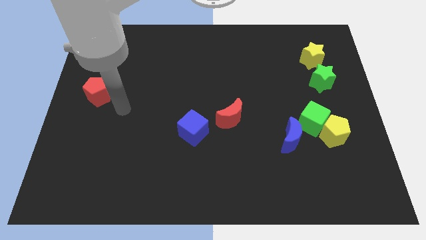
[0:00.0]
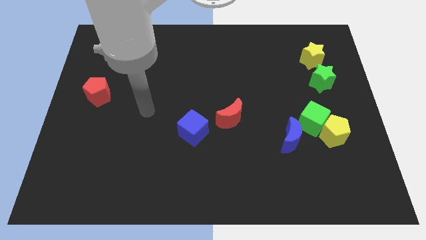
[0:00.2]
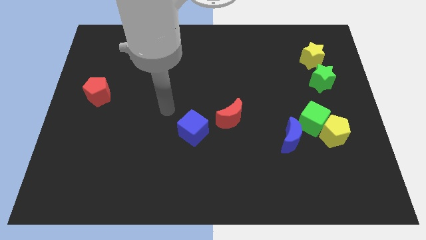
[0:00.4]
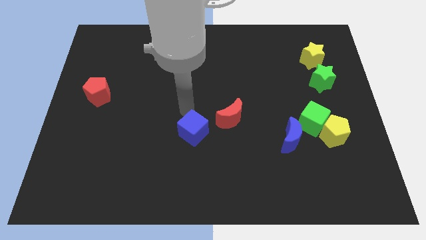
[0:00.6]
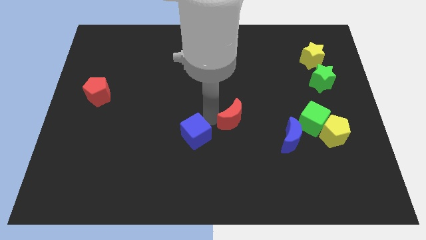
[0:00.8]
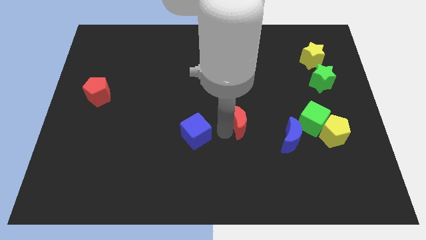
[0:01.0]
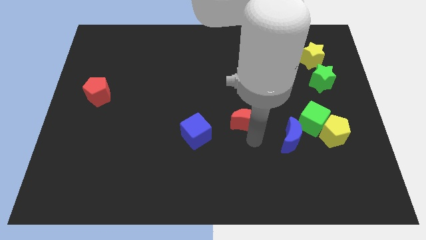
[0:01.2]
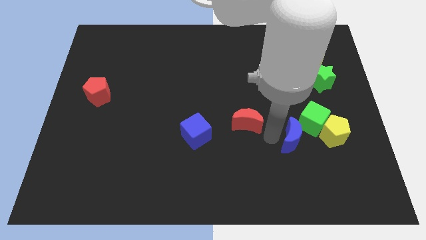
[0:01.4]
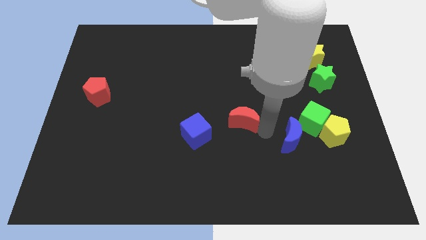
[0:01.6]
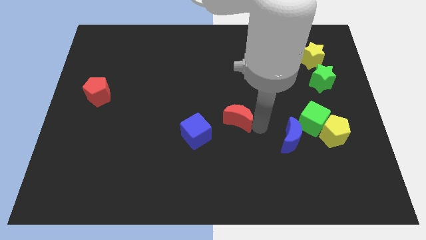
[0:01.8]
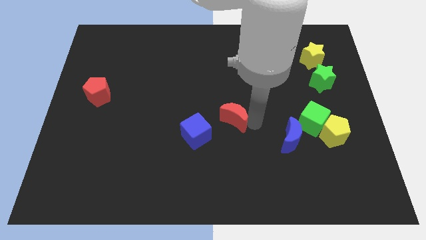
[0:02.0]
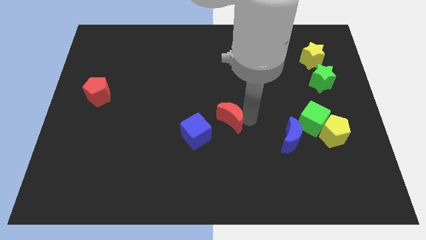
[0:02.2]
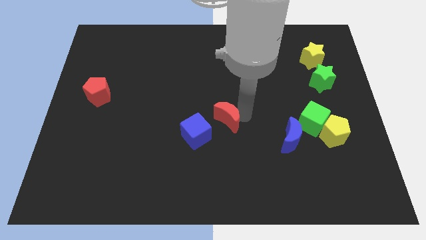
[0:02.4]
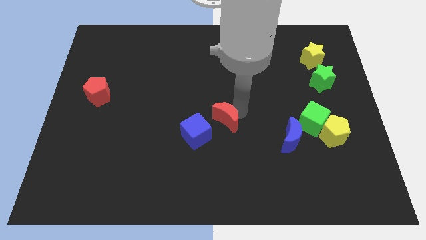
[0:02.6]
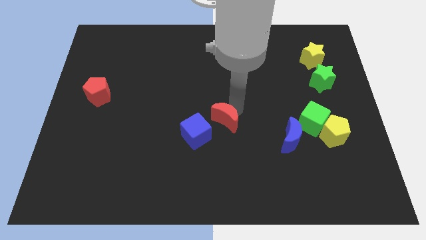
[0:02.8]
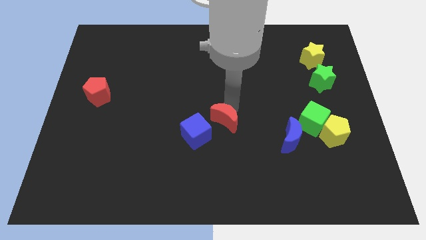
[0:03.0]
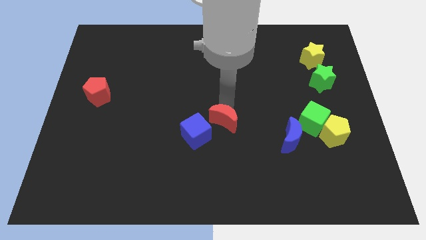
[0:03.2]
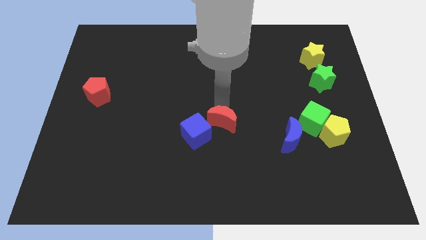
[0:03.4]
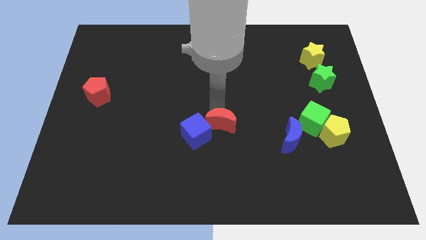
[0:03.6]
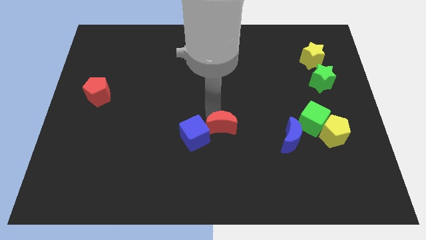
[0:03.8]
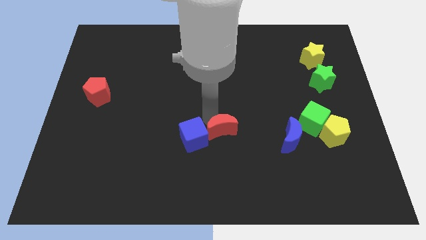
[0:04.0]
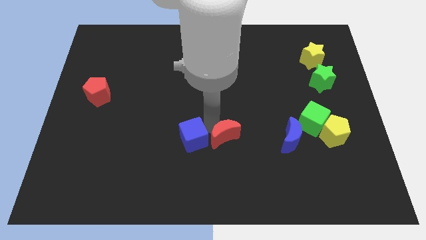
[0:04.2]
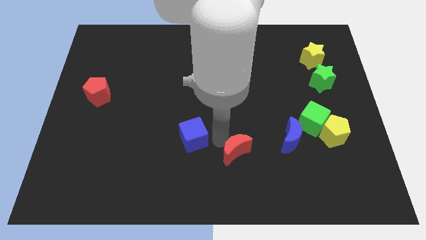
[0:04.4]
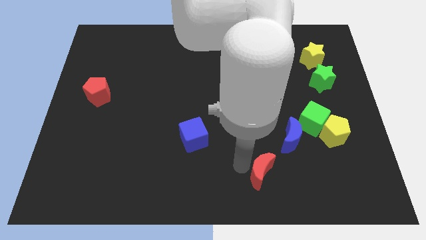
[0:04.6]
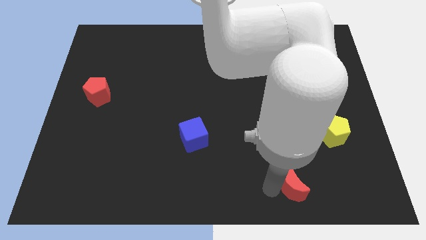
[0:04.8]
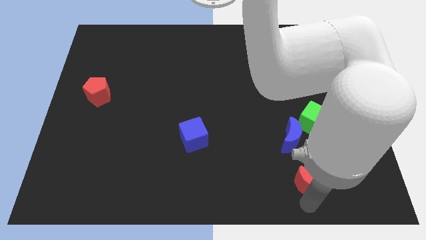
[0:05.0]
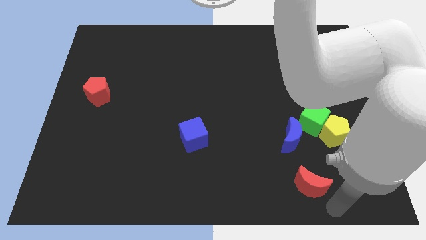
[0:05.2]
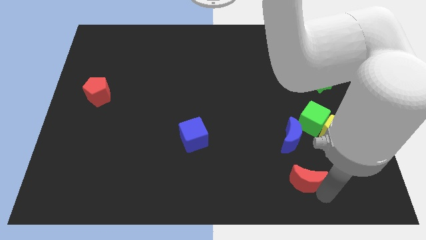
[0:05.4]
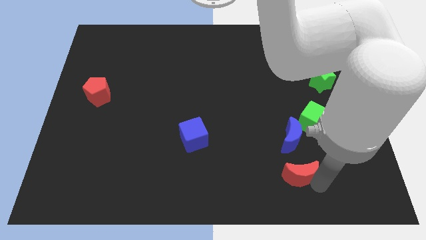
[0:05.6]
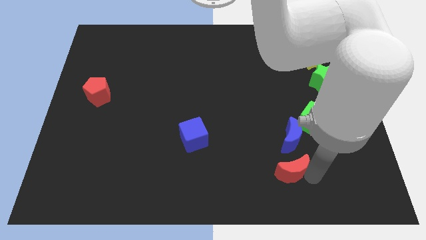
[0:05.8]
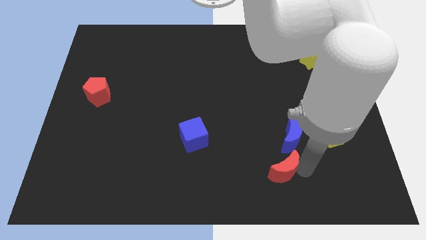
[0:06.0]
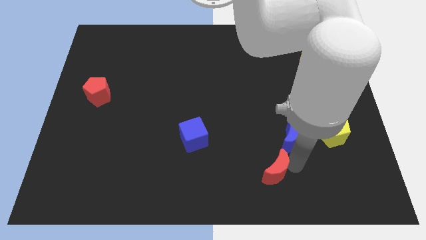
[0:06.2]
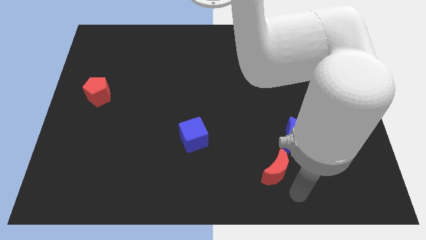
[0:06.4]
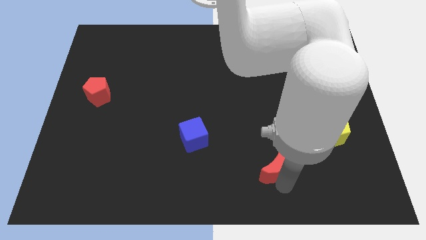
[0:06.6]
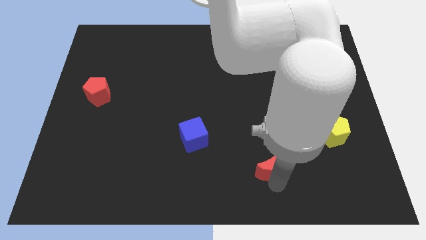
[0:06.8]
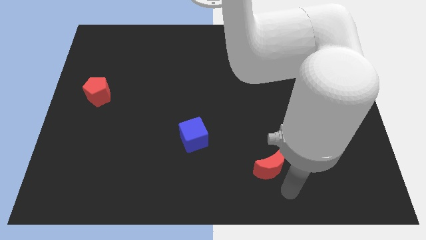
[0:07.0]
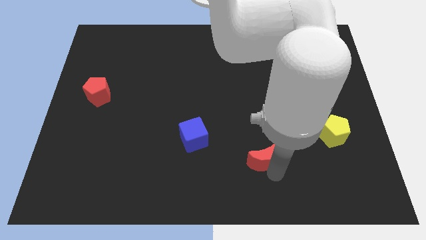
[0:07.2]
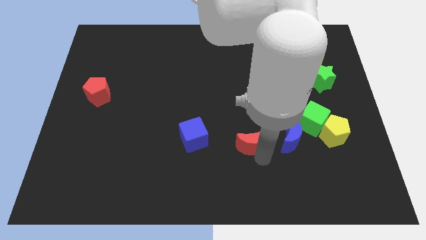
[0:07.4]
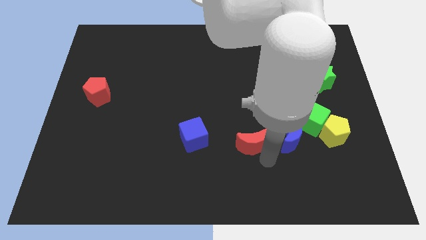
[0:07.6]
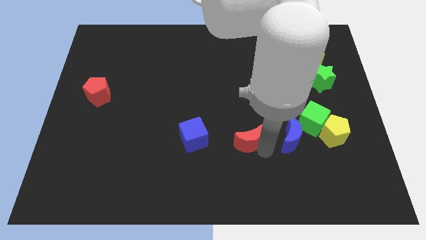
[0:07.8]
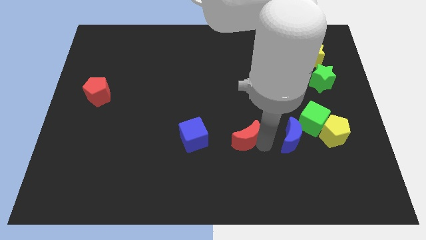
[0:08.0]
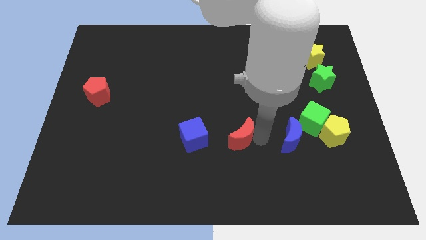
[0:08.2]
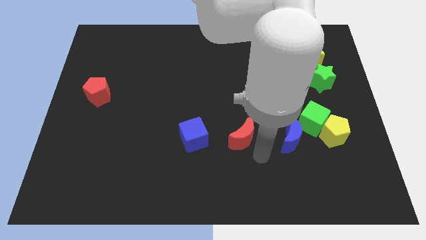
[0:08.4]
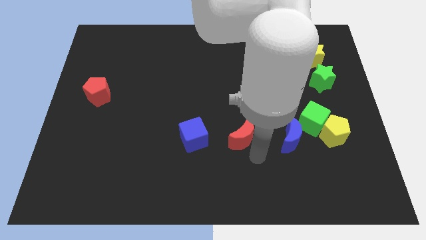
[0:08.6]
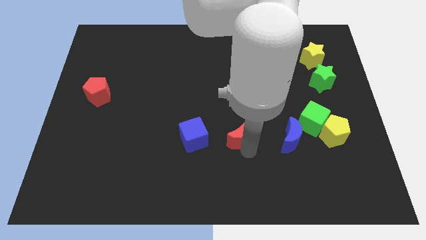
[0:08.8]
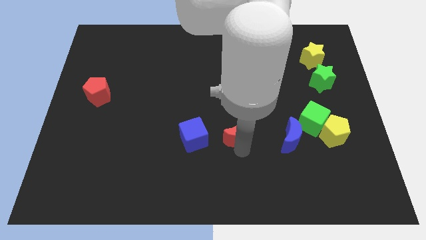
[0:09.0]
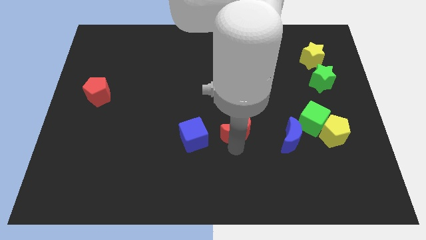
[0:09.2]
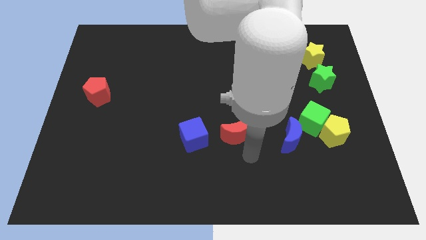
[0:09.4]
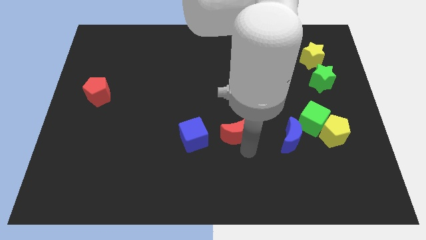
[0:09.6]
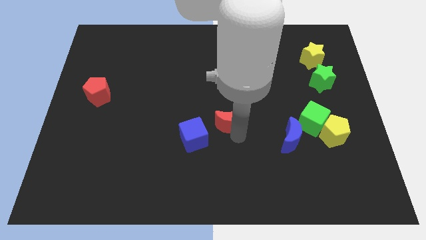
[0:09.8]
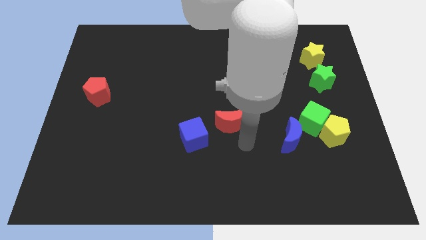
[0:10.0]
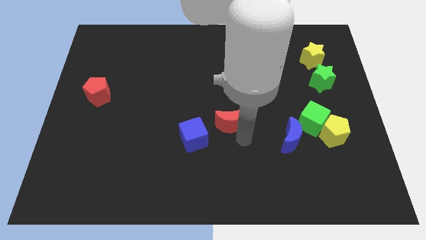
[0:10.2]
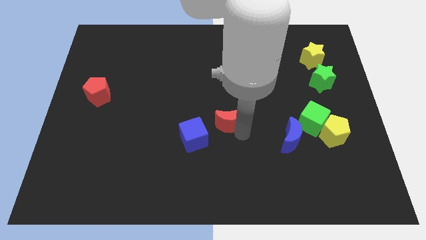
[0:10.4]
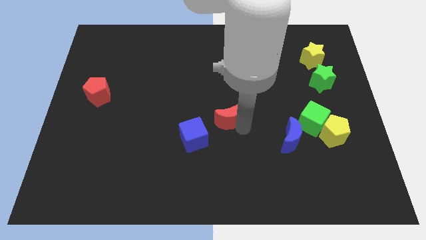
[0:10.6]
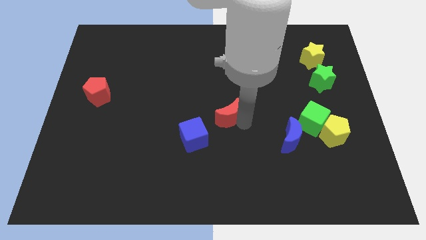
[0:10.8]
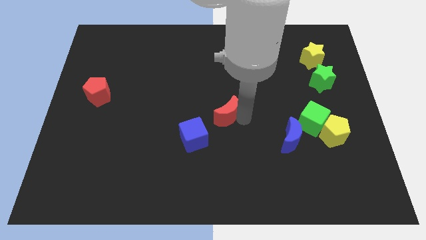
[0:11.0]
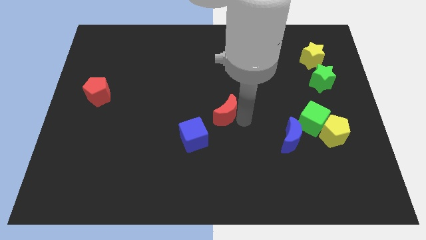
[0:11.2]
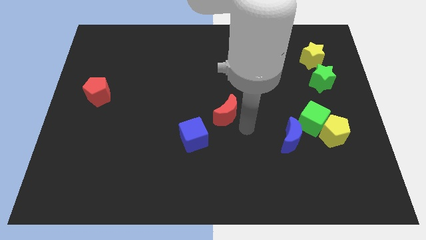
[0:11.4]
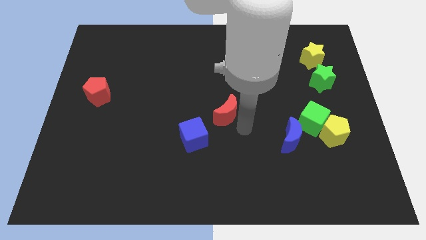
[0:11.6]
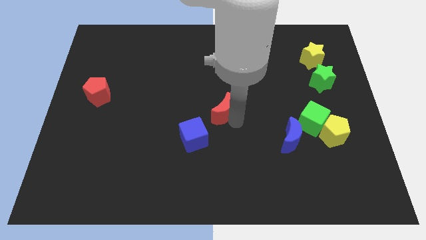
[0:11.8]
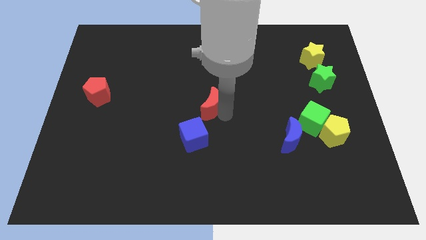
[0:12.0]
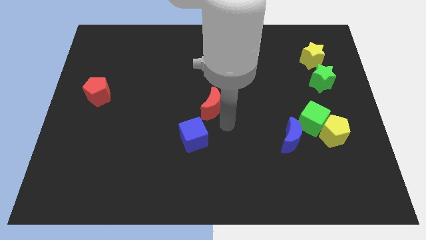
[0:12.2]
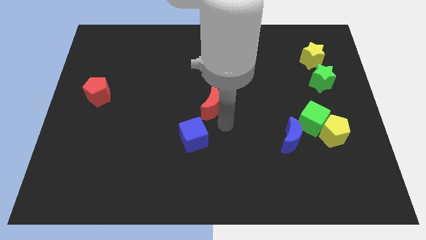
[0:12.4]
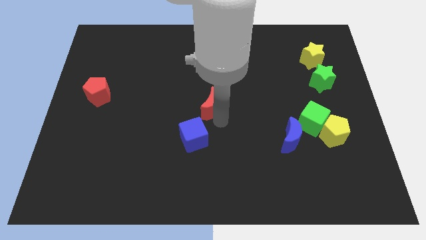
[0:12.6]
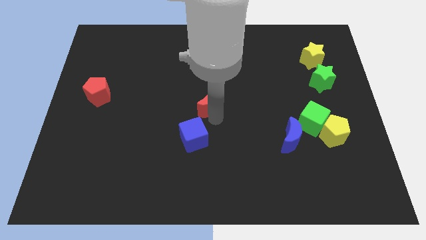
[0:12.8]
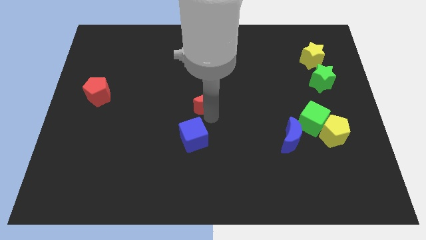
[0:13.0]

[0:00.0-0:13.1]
slide the red moon slightly upwards and then left

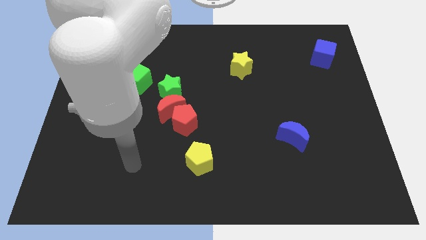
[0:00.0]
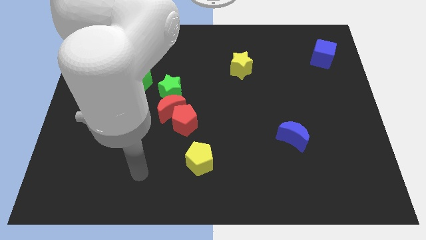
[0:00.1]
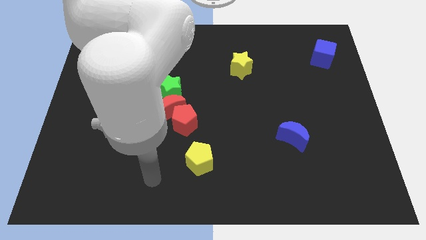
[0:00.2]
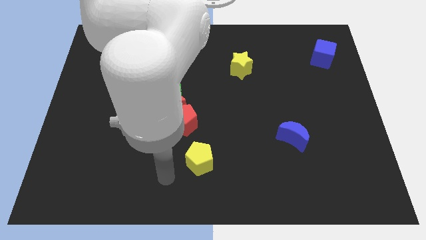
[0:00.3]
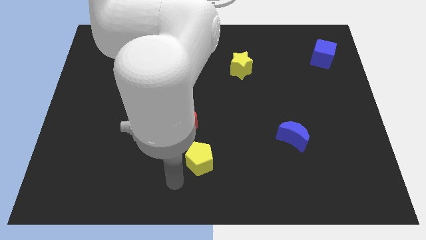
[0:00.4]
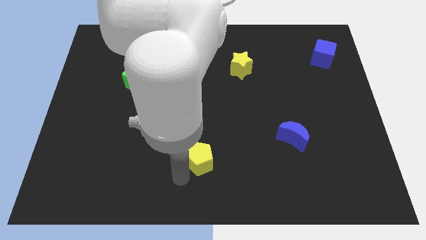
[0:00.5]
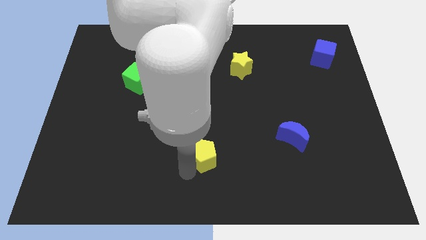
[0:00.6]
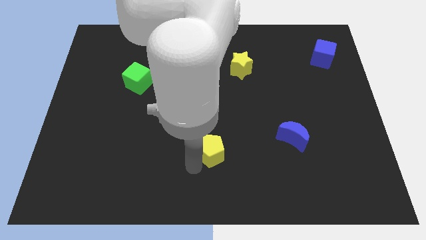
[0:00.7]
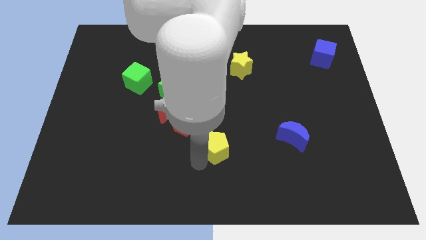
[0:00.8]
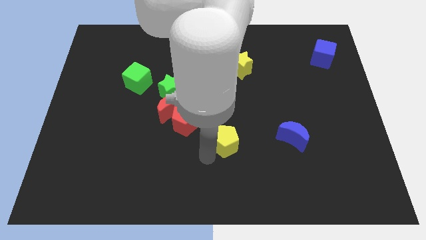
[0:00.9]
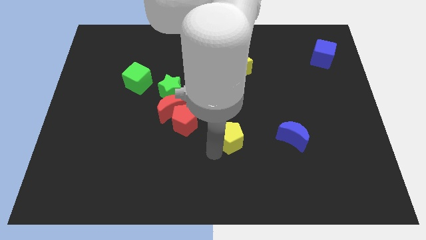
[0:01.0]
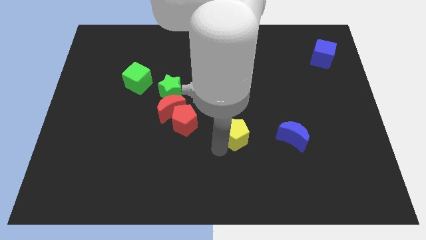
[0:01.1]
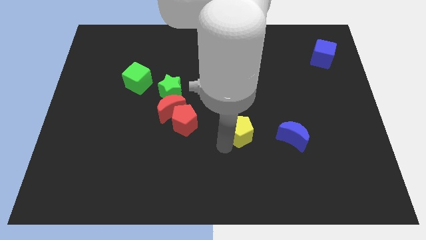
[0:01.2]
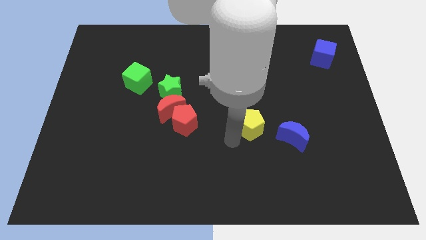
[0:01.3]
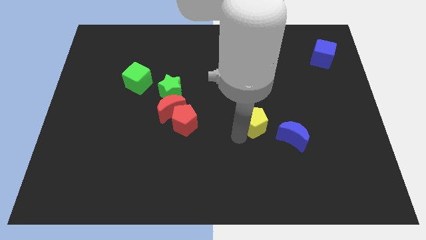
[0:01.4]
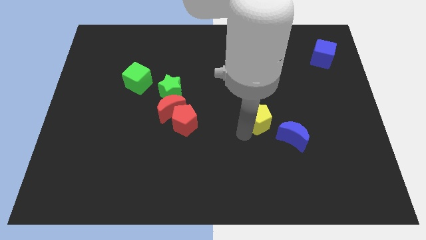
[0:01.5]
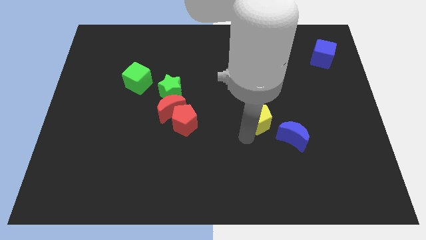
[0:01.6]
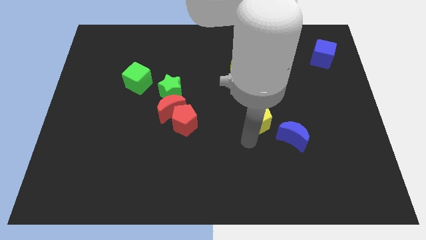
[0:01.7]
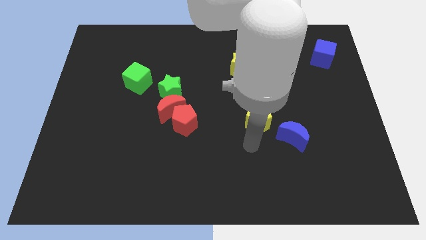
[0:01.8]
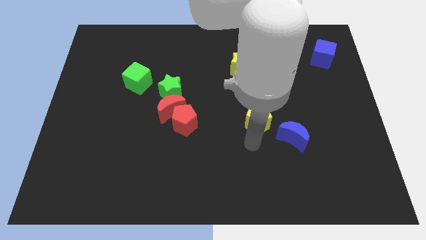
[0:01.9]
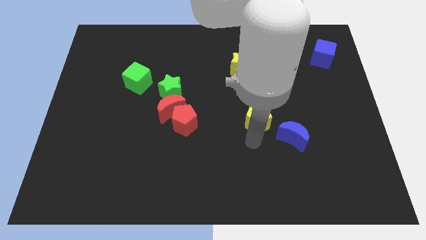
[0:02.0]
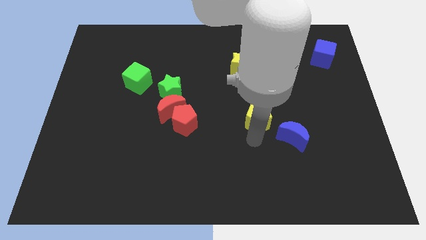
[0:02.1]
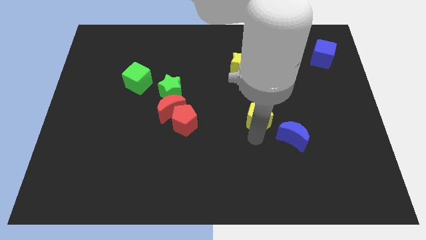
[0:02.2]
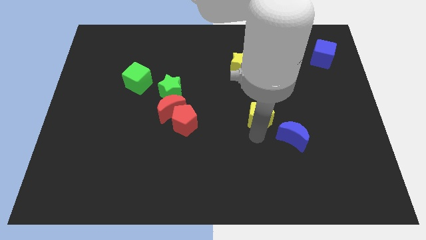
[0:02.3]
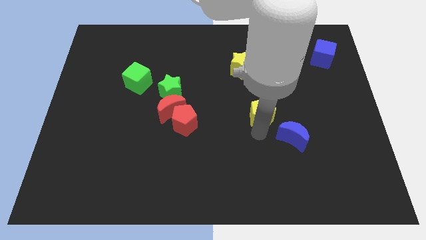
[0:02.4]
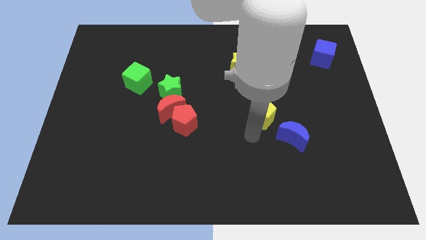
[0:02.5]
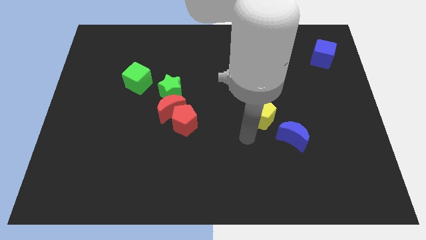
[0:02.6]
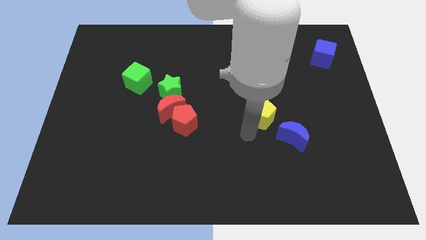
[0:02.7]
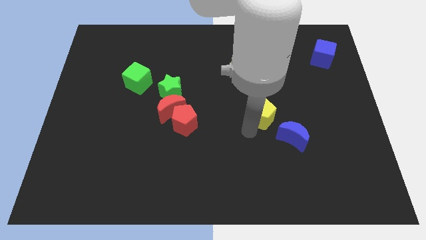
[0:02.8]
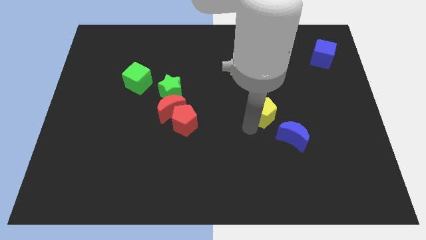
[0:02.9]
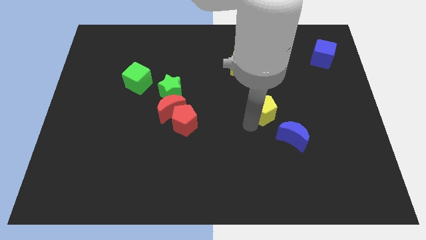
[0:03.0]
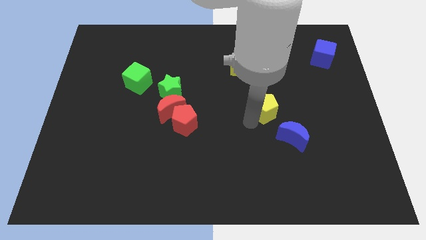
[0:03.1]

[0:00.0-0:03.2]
move the yellow pentagon up and then to the right
